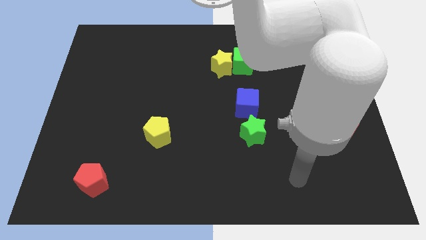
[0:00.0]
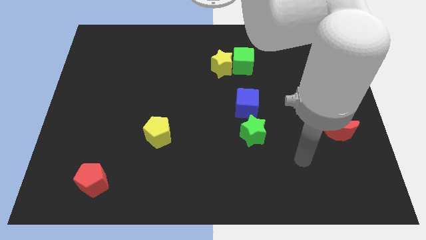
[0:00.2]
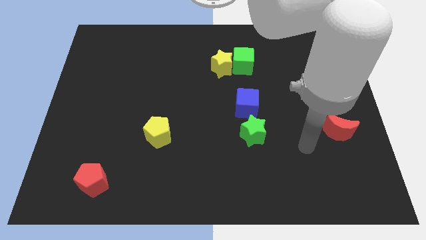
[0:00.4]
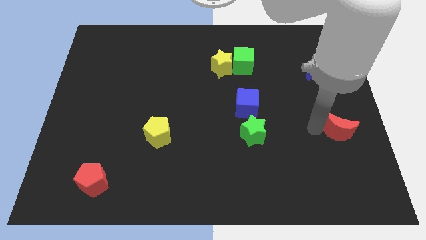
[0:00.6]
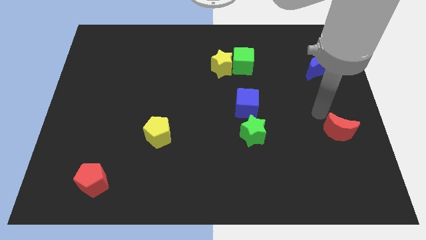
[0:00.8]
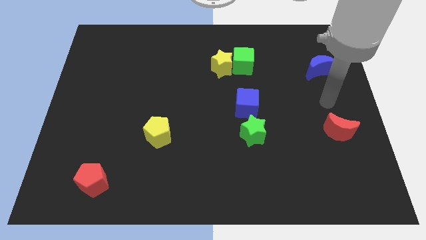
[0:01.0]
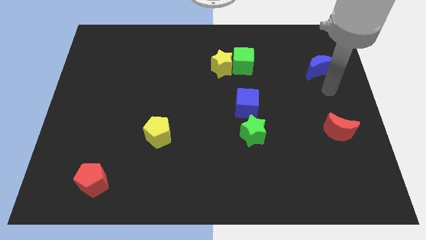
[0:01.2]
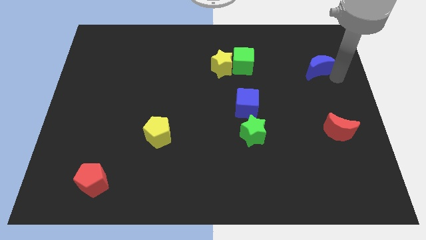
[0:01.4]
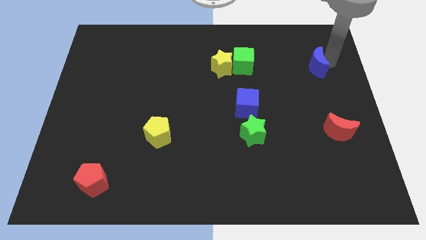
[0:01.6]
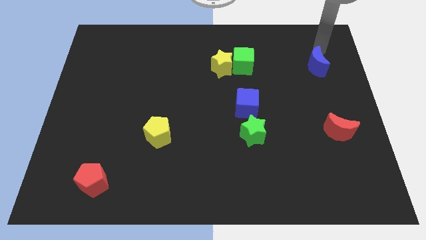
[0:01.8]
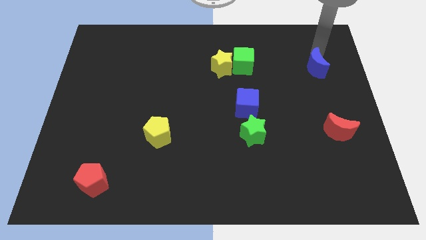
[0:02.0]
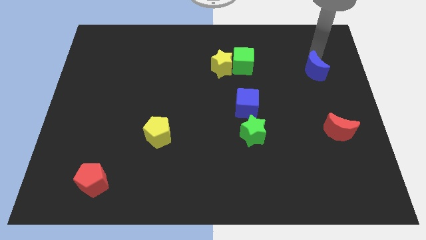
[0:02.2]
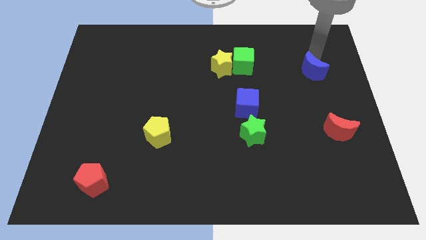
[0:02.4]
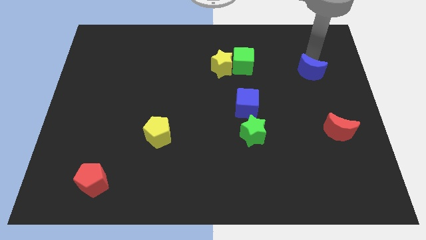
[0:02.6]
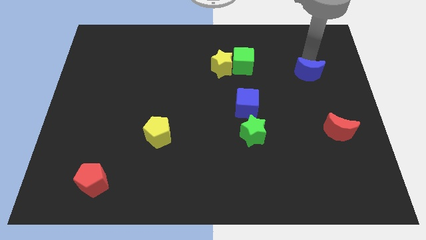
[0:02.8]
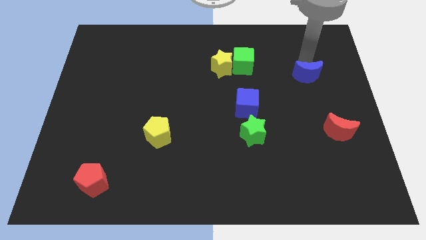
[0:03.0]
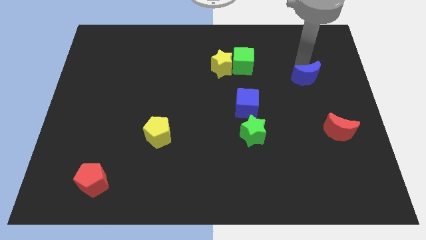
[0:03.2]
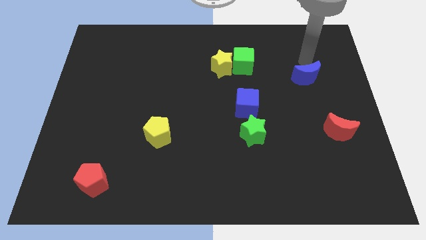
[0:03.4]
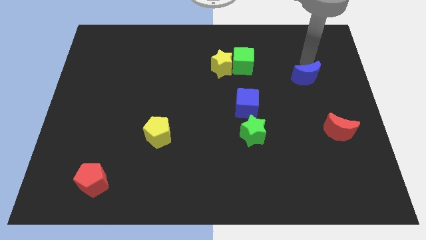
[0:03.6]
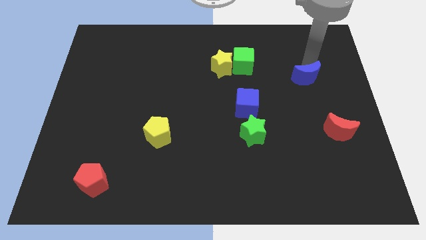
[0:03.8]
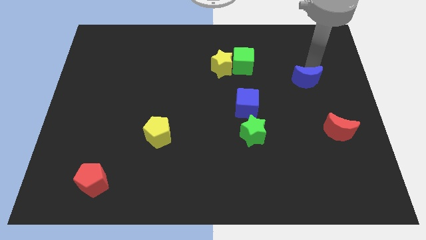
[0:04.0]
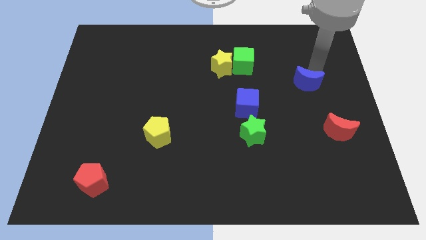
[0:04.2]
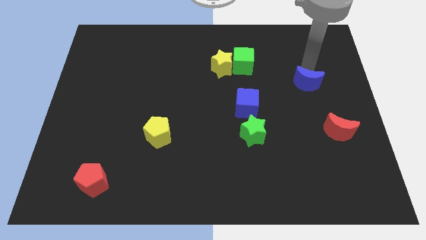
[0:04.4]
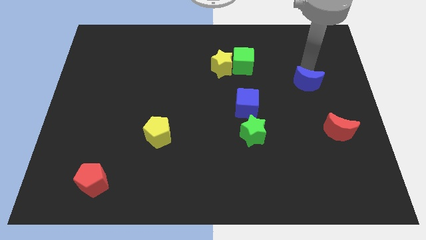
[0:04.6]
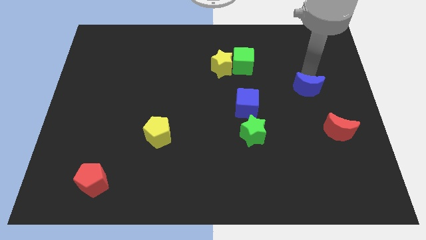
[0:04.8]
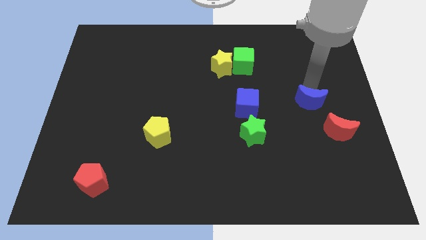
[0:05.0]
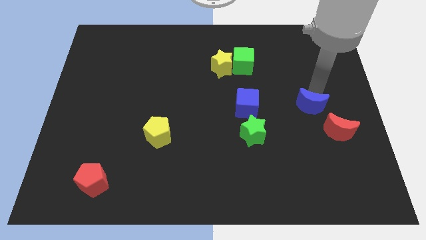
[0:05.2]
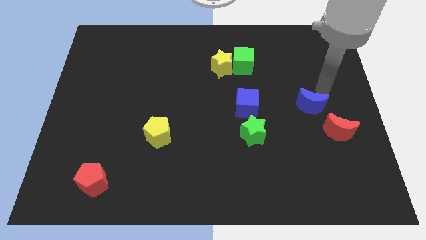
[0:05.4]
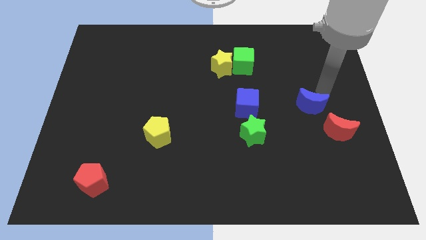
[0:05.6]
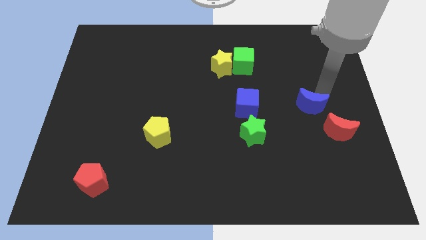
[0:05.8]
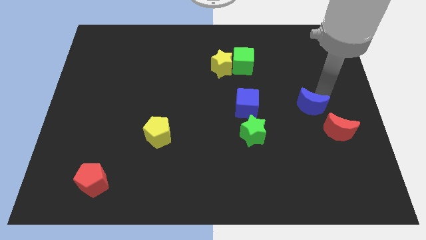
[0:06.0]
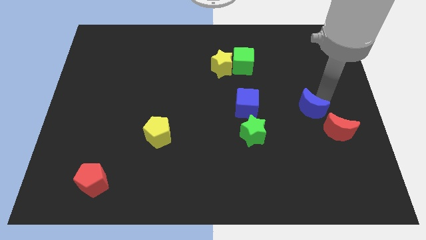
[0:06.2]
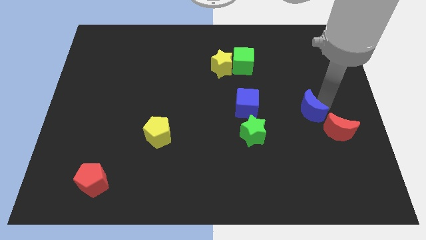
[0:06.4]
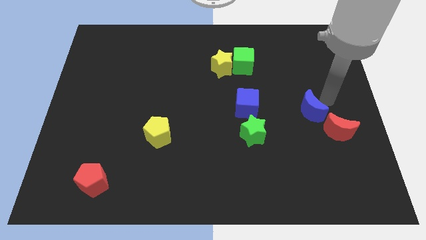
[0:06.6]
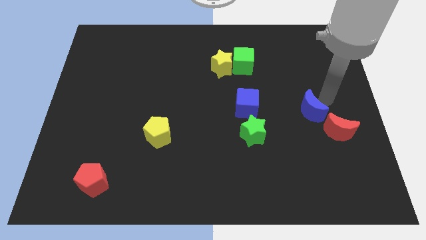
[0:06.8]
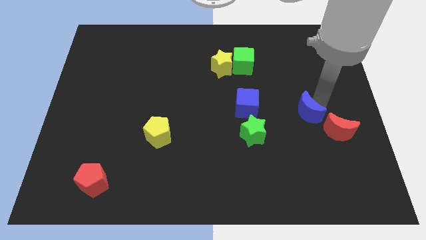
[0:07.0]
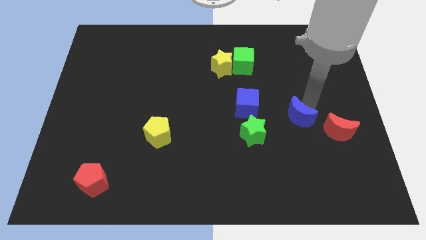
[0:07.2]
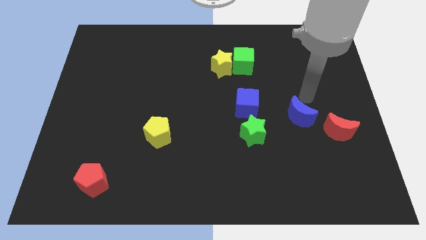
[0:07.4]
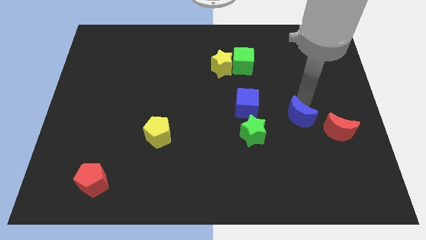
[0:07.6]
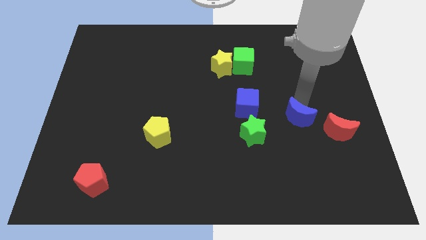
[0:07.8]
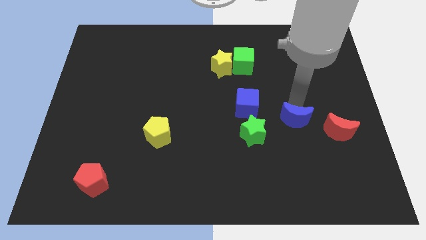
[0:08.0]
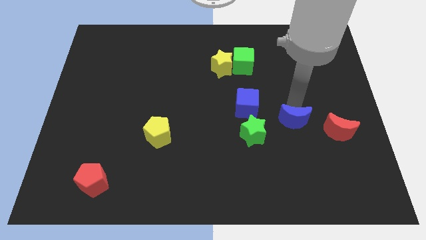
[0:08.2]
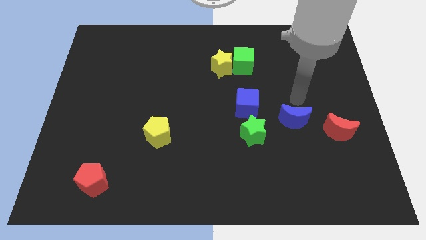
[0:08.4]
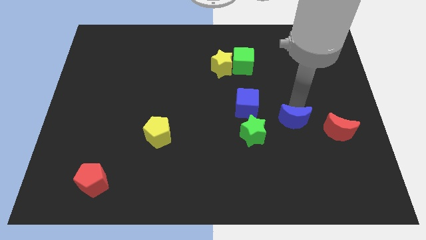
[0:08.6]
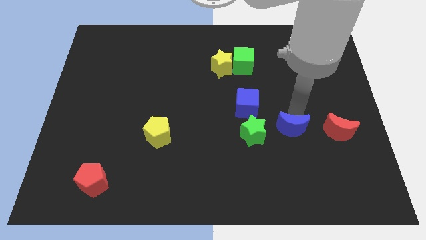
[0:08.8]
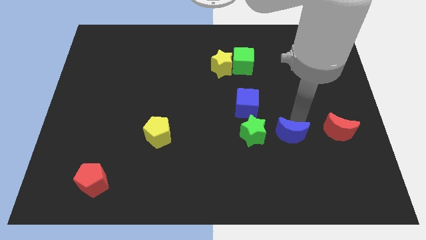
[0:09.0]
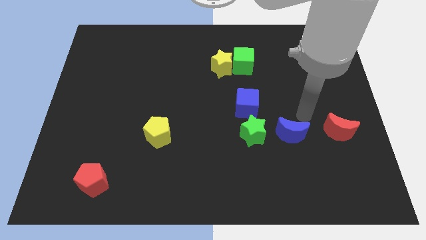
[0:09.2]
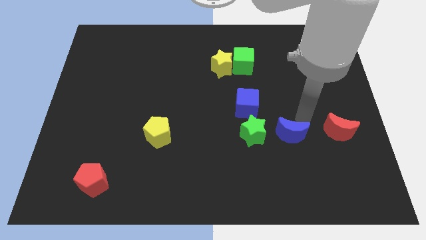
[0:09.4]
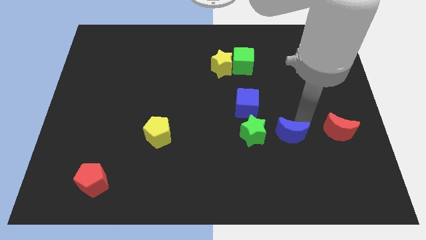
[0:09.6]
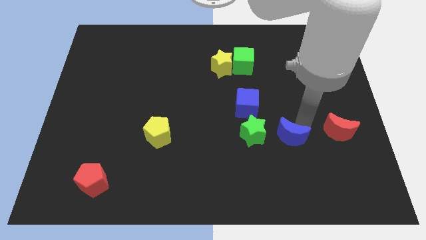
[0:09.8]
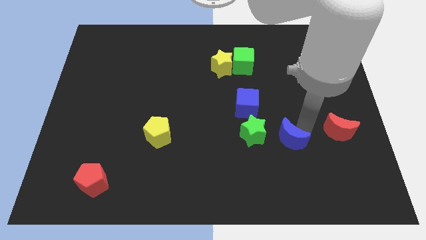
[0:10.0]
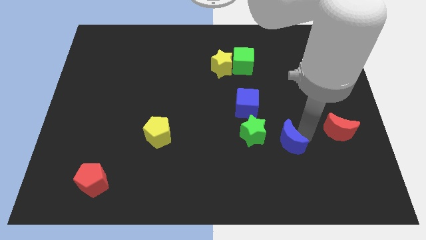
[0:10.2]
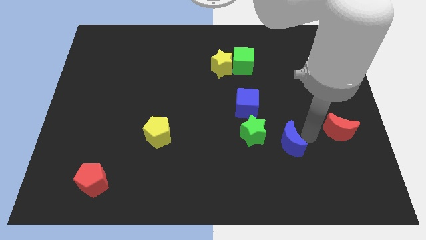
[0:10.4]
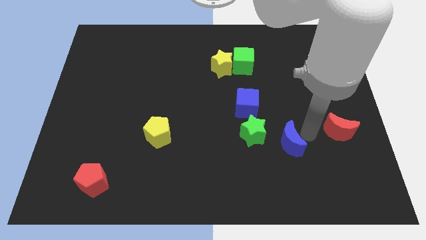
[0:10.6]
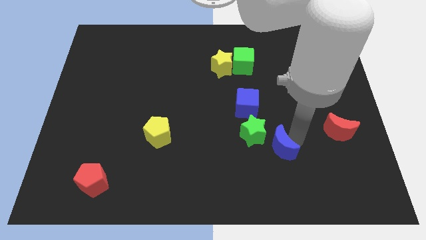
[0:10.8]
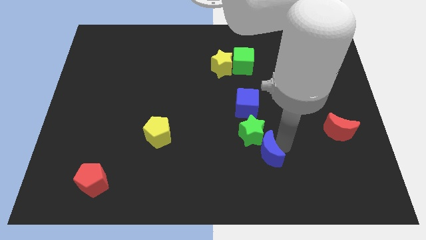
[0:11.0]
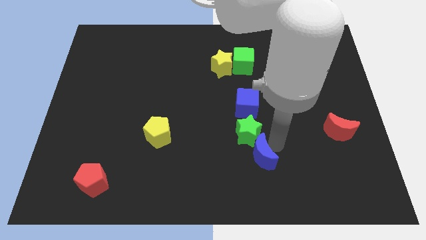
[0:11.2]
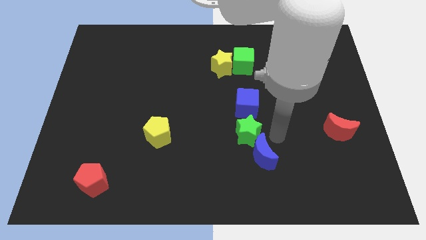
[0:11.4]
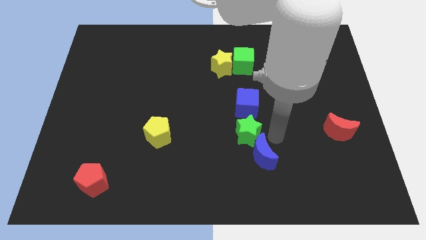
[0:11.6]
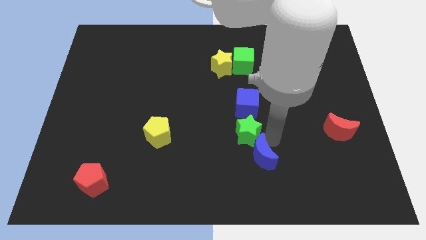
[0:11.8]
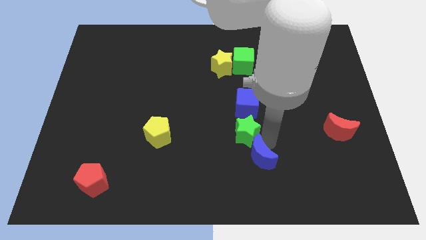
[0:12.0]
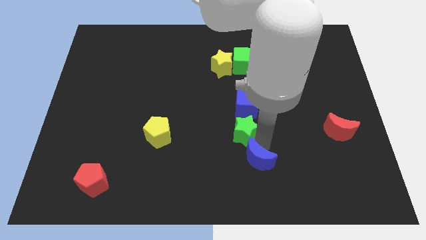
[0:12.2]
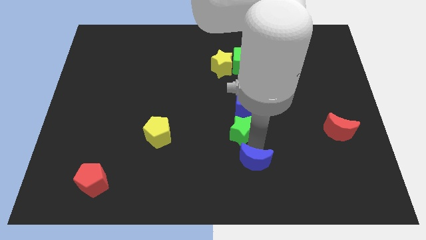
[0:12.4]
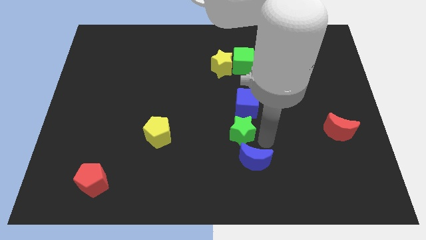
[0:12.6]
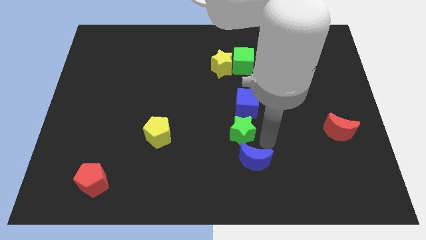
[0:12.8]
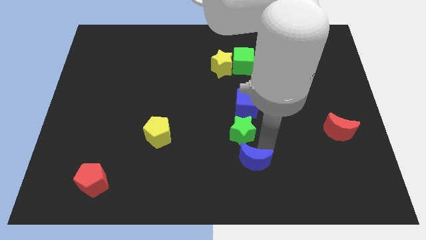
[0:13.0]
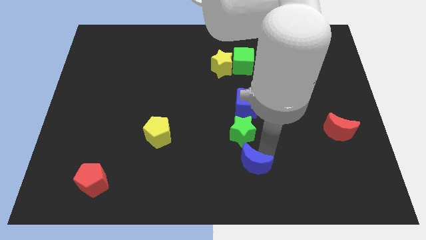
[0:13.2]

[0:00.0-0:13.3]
move the blue moon to the bottom
